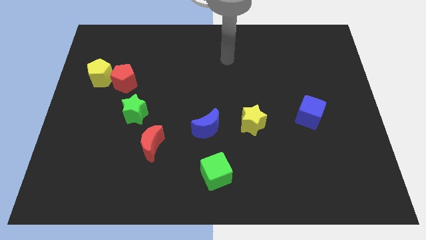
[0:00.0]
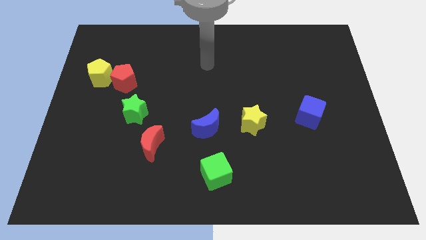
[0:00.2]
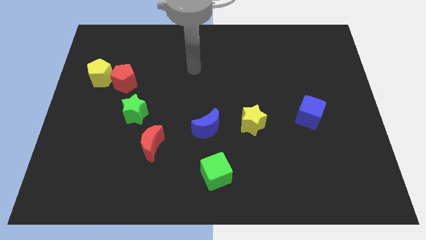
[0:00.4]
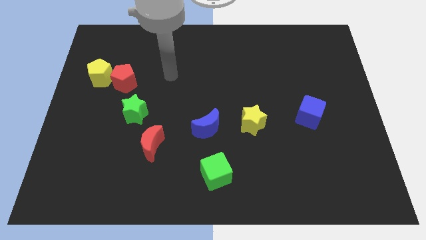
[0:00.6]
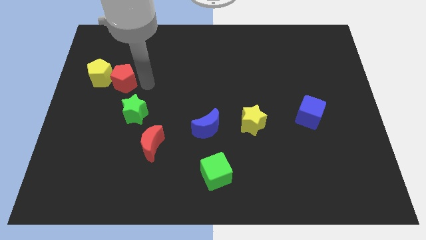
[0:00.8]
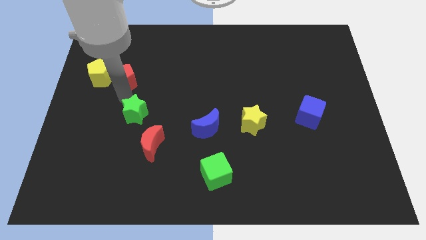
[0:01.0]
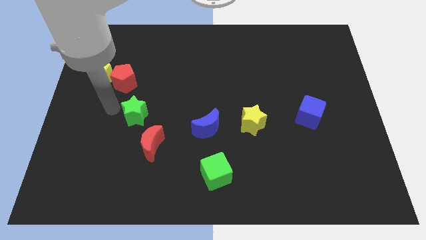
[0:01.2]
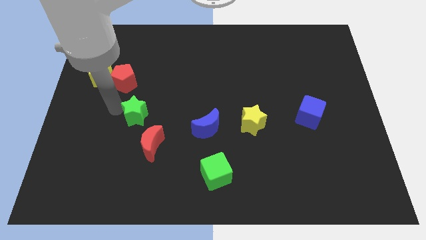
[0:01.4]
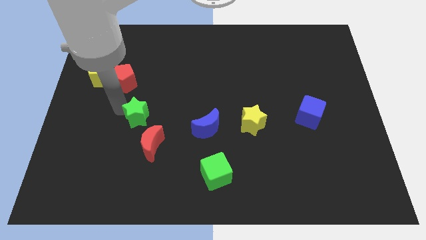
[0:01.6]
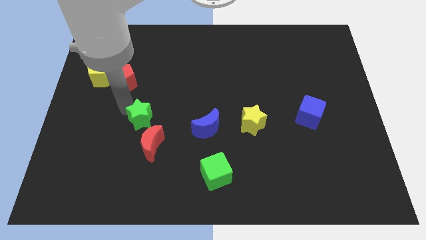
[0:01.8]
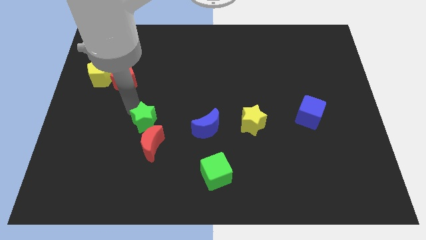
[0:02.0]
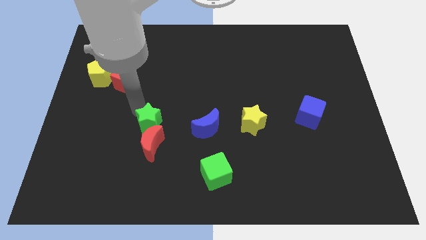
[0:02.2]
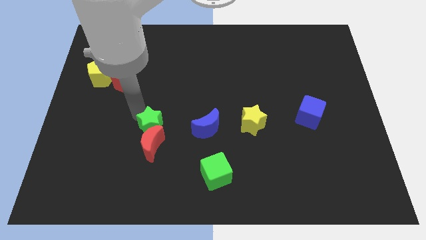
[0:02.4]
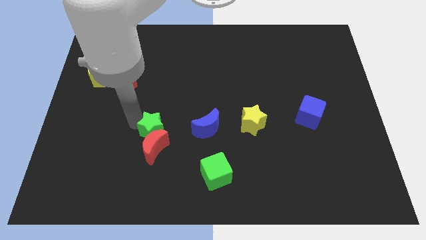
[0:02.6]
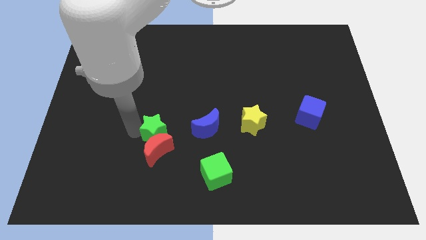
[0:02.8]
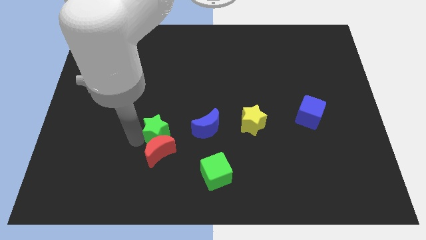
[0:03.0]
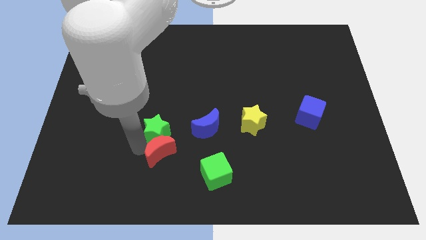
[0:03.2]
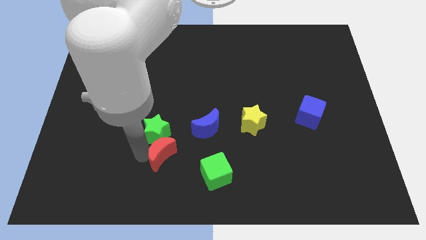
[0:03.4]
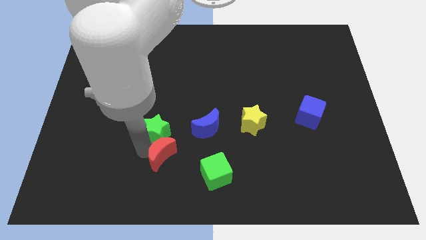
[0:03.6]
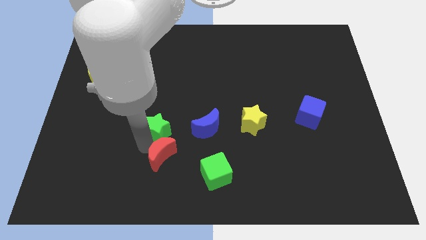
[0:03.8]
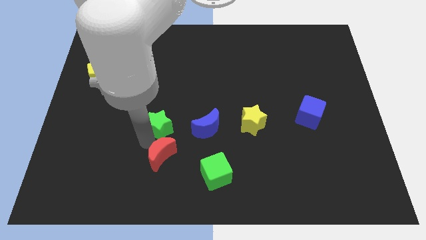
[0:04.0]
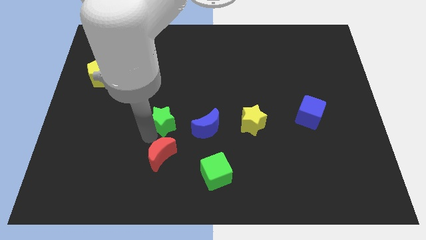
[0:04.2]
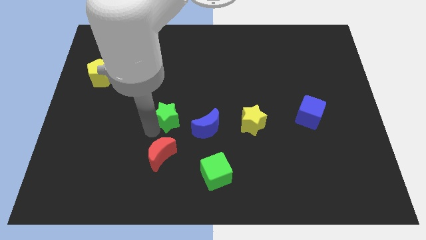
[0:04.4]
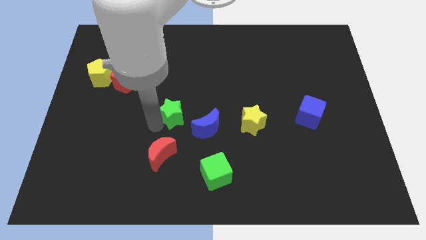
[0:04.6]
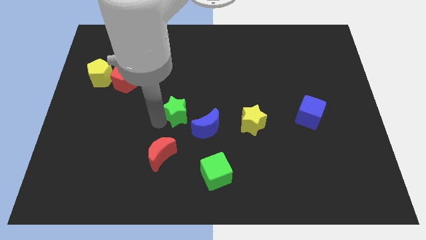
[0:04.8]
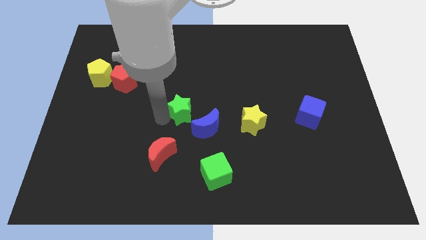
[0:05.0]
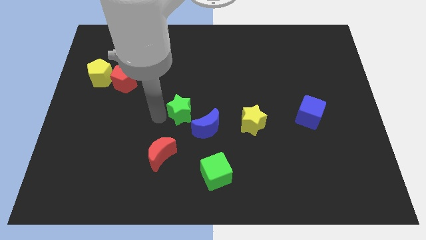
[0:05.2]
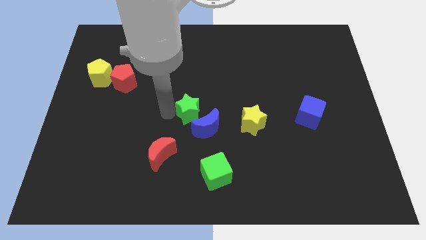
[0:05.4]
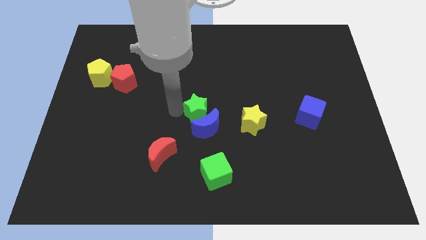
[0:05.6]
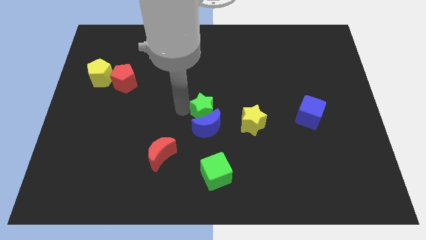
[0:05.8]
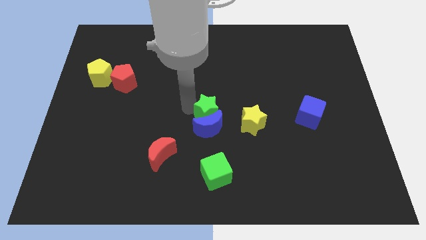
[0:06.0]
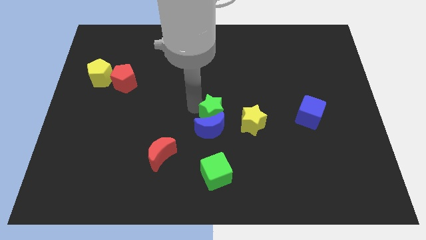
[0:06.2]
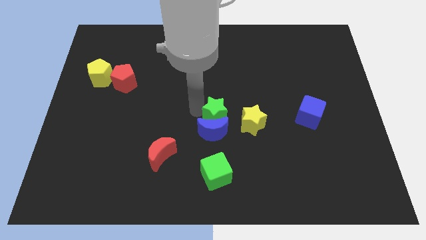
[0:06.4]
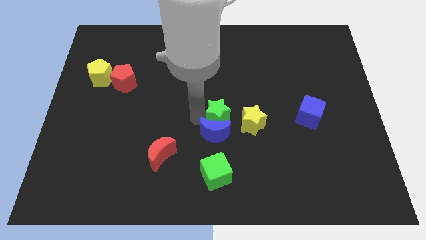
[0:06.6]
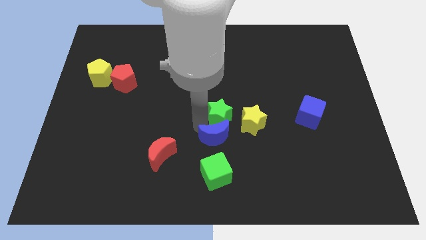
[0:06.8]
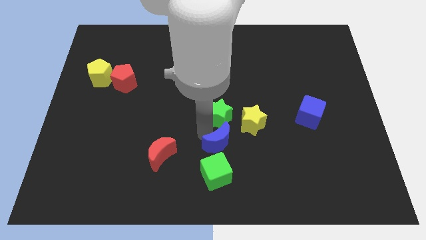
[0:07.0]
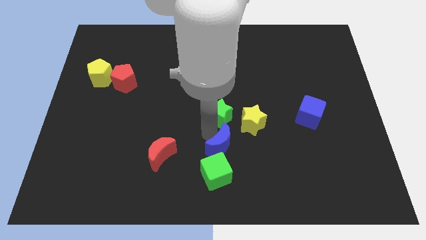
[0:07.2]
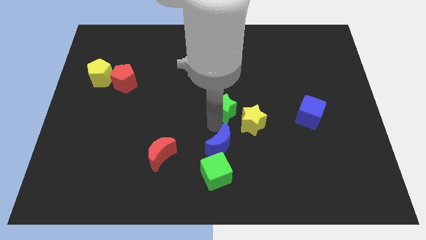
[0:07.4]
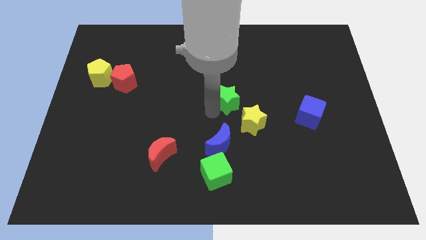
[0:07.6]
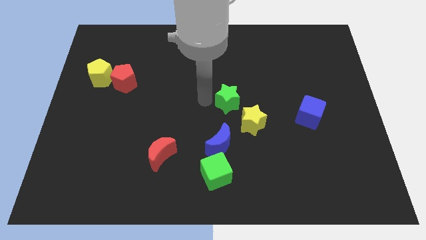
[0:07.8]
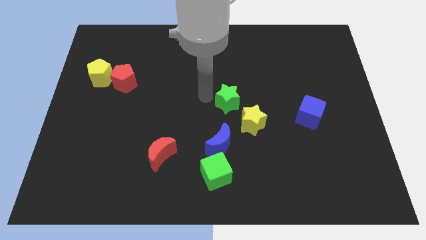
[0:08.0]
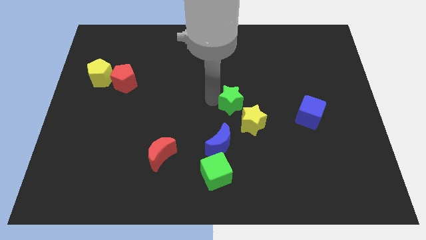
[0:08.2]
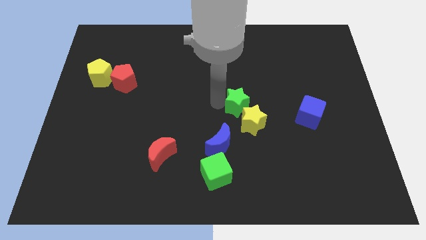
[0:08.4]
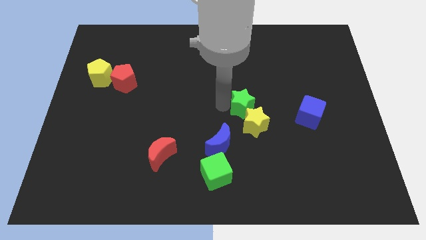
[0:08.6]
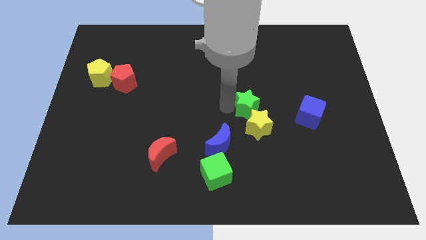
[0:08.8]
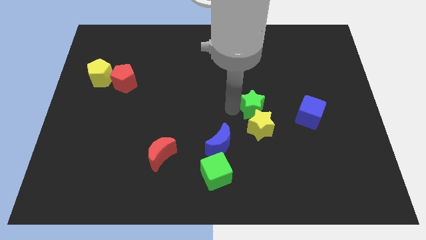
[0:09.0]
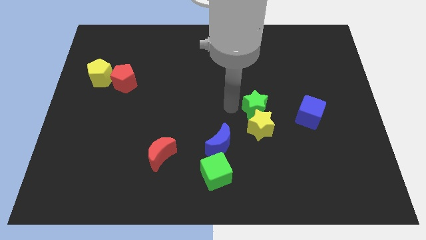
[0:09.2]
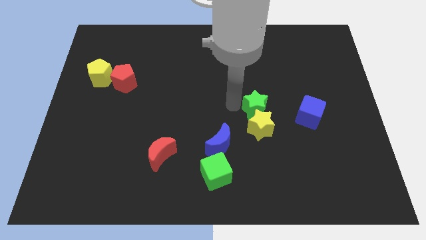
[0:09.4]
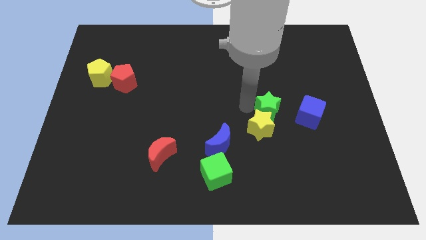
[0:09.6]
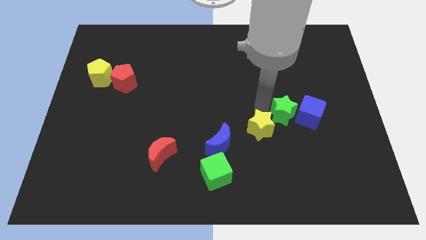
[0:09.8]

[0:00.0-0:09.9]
put the green star to the blue cube

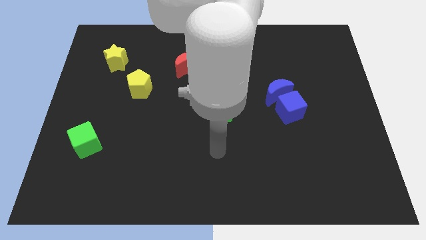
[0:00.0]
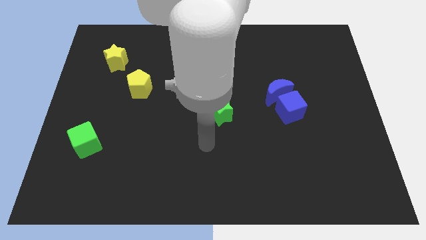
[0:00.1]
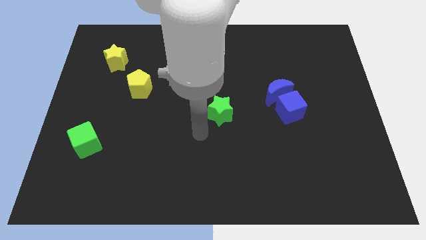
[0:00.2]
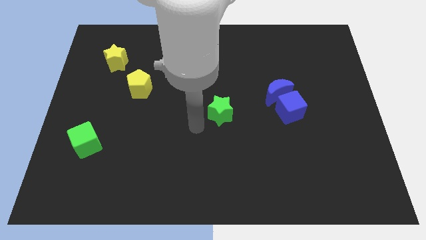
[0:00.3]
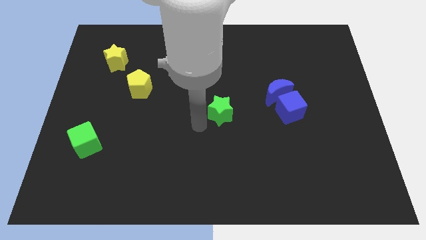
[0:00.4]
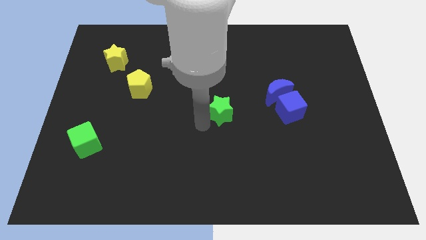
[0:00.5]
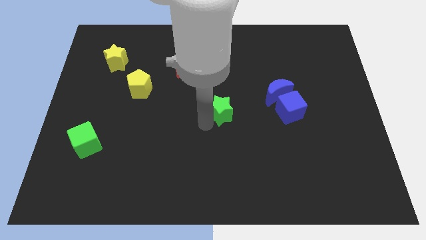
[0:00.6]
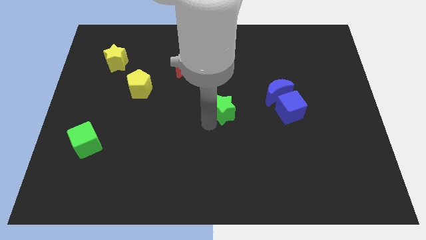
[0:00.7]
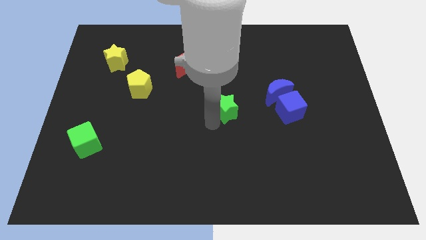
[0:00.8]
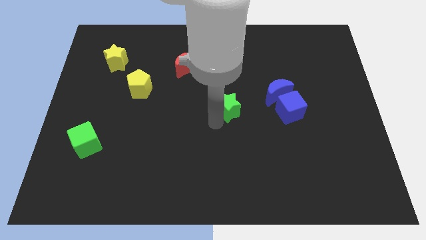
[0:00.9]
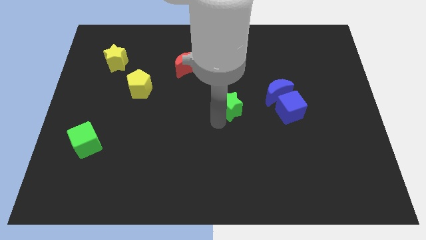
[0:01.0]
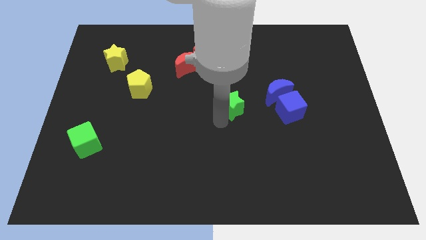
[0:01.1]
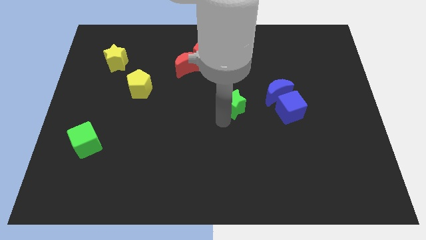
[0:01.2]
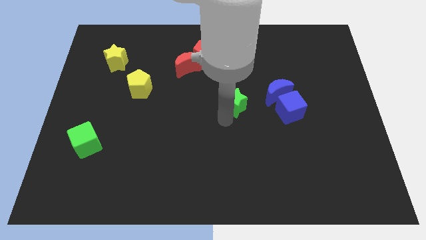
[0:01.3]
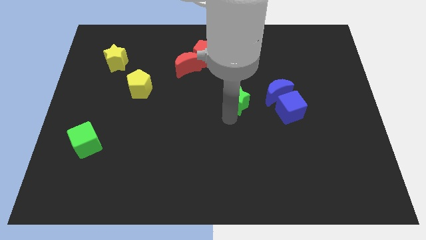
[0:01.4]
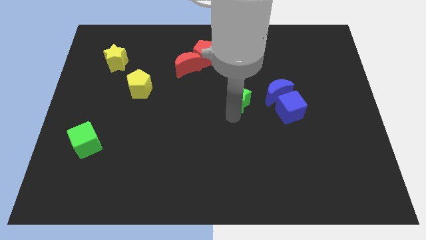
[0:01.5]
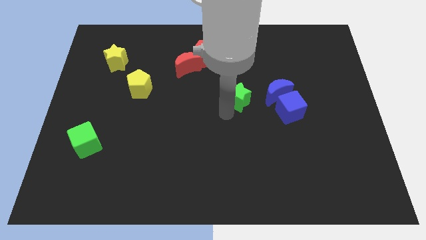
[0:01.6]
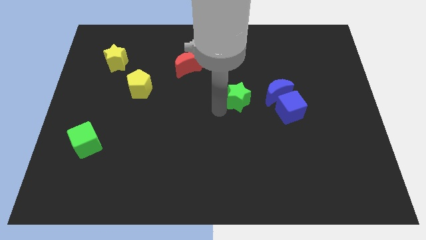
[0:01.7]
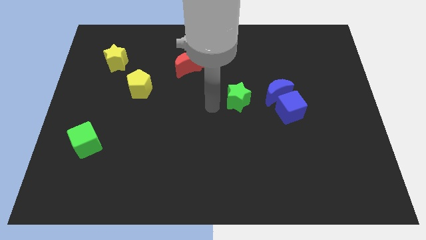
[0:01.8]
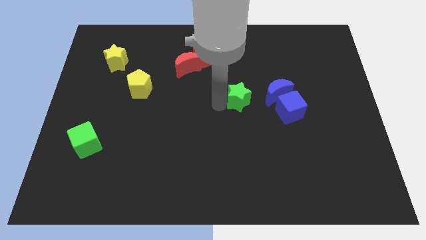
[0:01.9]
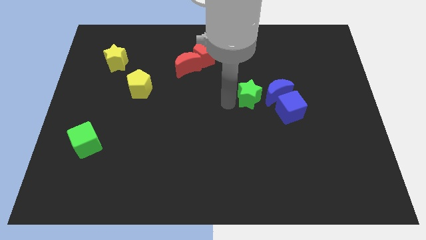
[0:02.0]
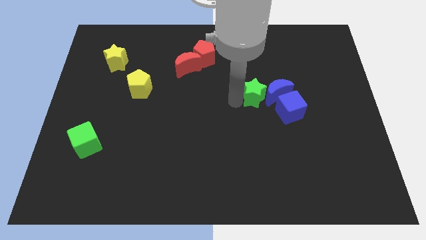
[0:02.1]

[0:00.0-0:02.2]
slide the green star close to the blue moon
